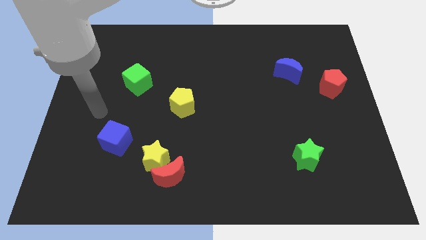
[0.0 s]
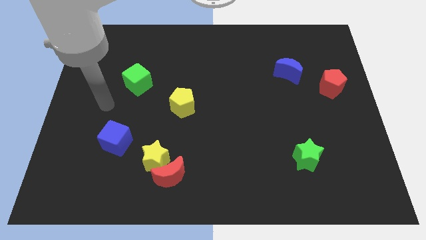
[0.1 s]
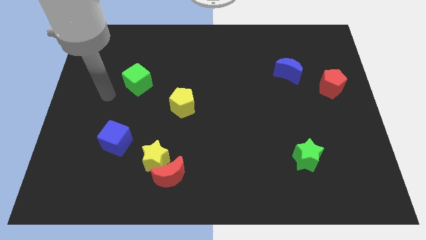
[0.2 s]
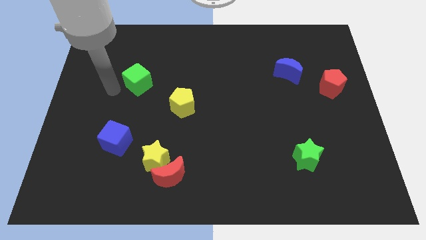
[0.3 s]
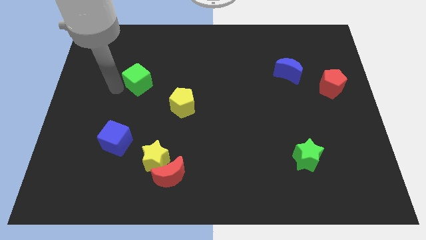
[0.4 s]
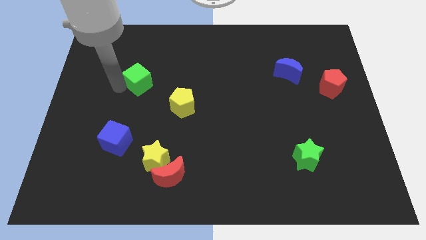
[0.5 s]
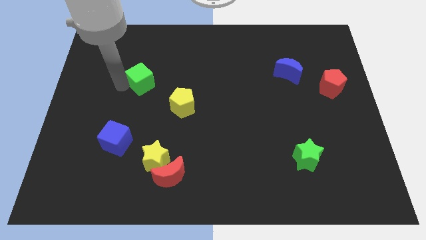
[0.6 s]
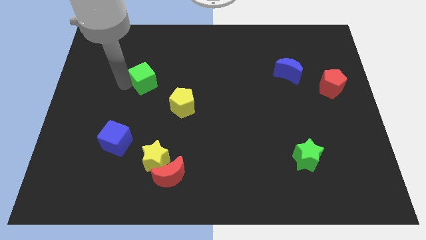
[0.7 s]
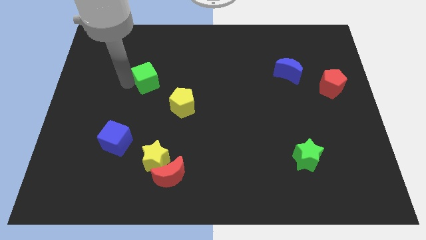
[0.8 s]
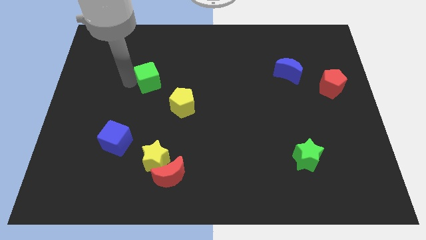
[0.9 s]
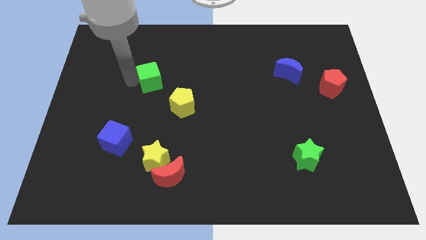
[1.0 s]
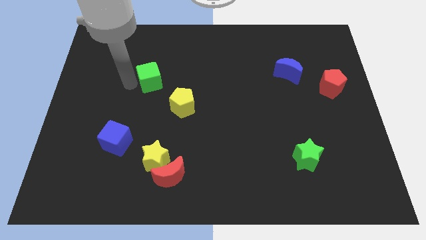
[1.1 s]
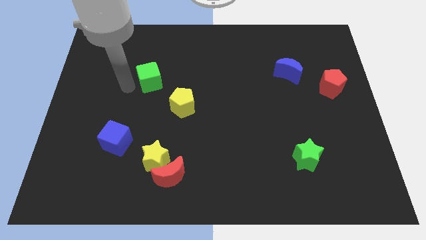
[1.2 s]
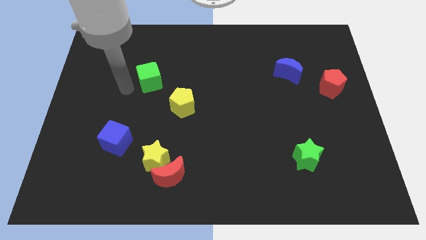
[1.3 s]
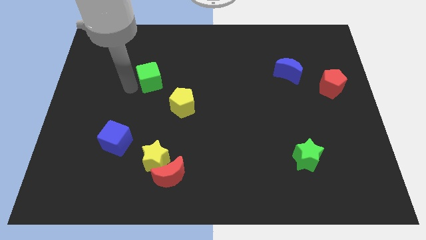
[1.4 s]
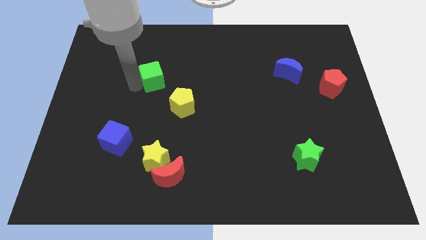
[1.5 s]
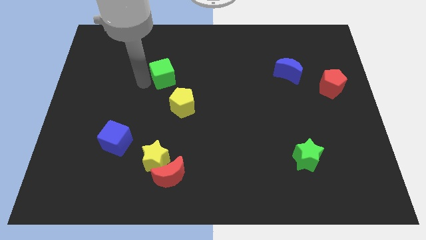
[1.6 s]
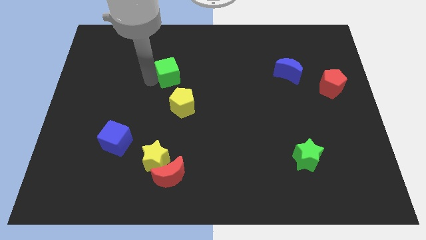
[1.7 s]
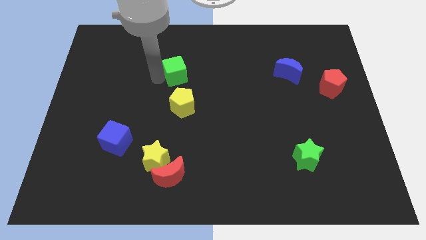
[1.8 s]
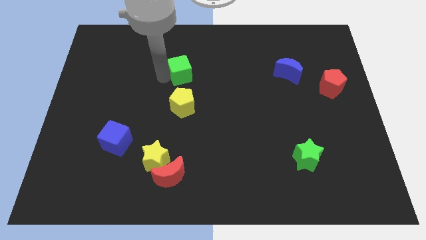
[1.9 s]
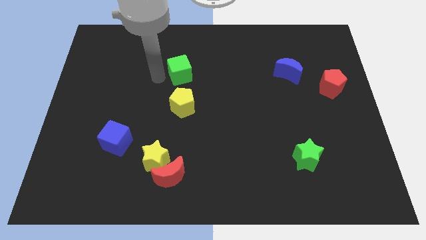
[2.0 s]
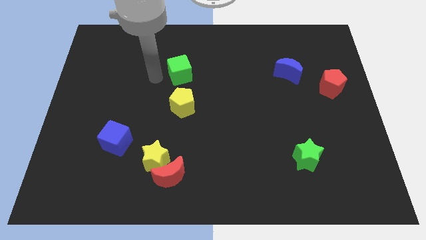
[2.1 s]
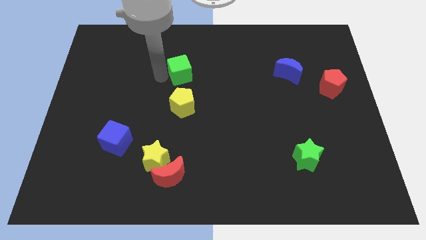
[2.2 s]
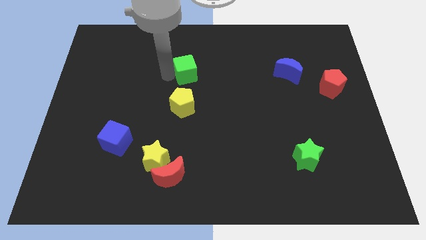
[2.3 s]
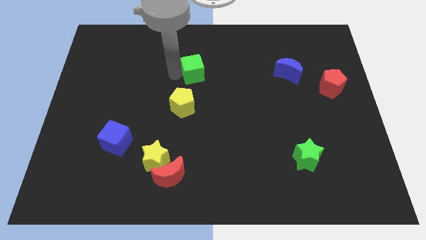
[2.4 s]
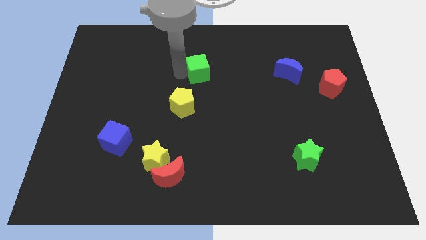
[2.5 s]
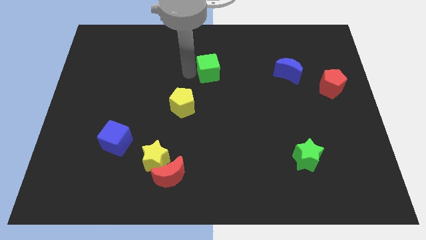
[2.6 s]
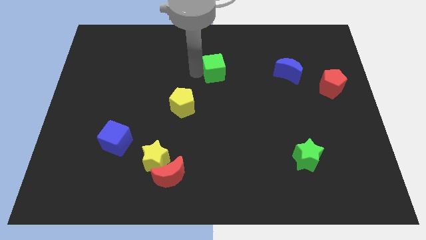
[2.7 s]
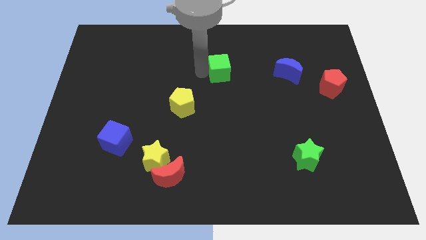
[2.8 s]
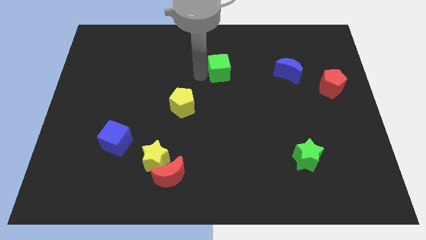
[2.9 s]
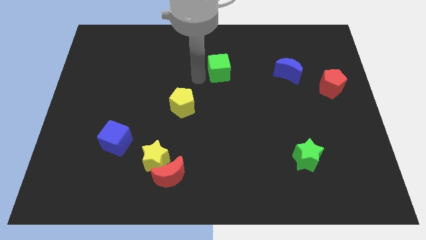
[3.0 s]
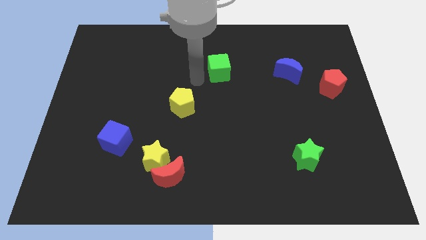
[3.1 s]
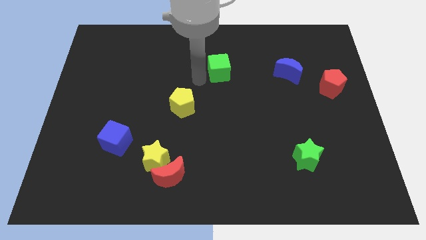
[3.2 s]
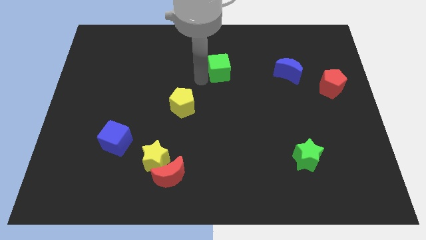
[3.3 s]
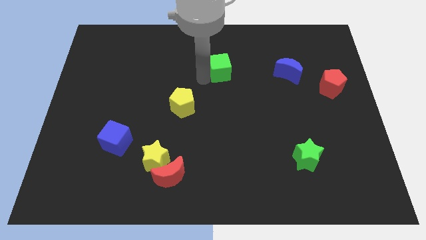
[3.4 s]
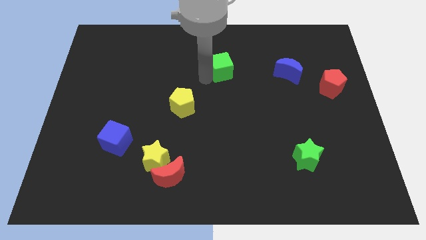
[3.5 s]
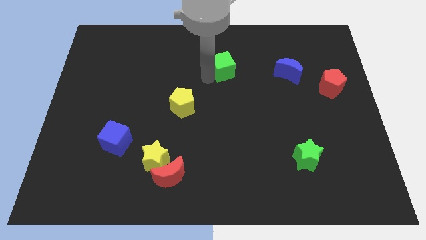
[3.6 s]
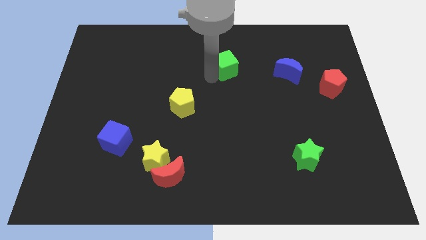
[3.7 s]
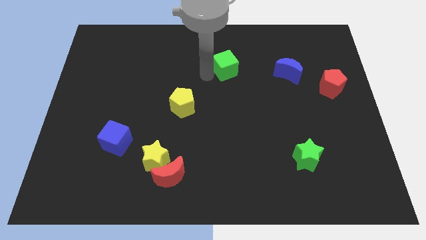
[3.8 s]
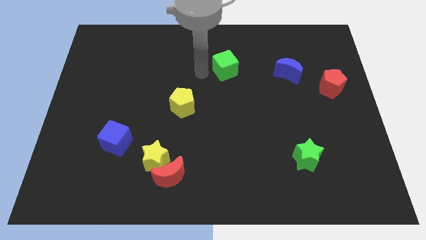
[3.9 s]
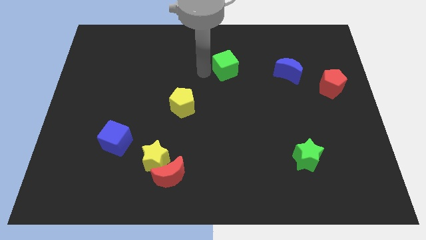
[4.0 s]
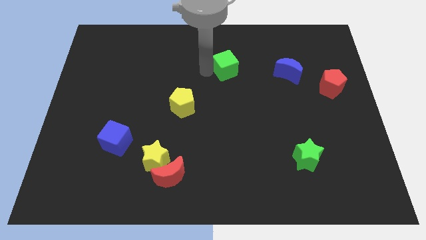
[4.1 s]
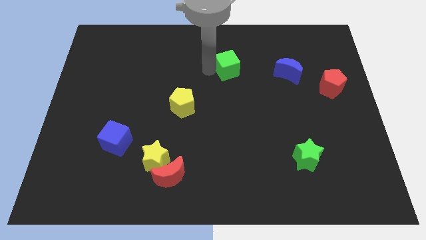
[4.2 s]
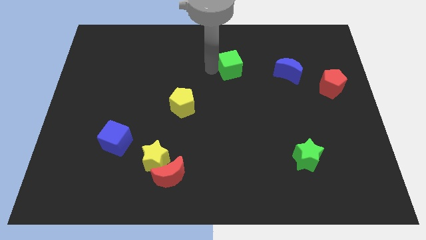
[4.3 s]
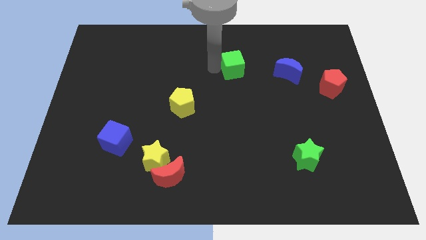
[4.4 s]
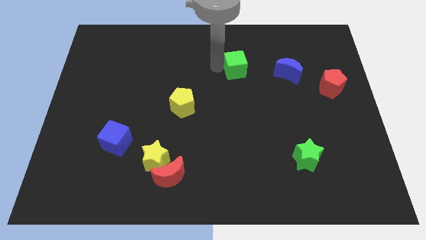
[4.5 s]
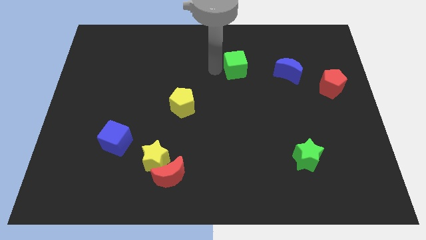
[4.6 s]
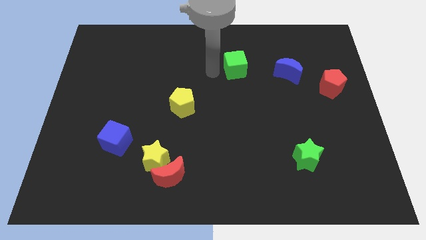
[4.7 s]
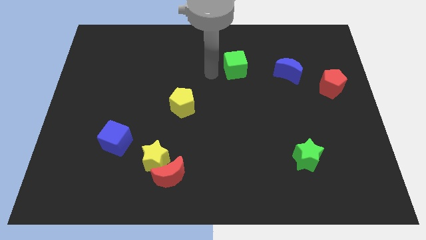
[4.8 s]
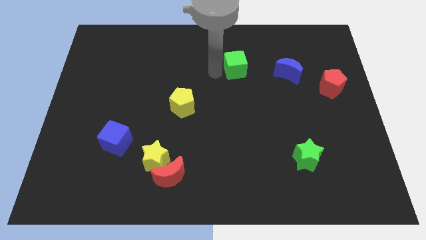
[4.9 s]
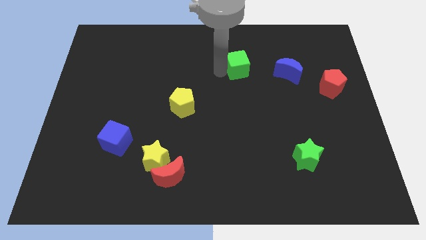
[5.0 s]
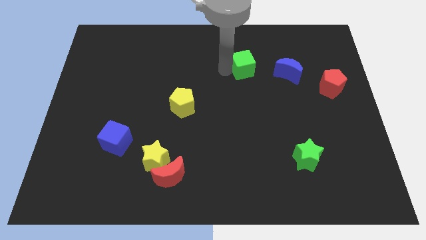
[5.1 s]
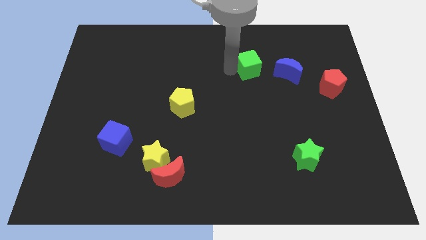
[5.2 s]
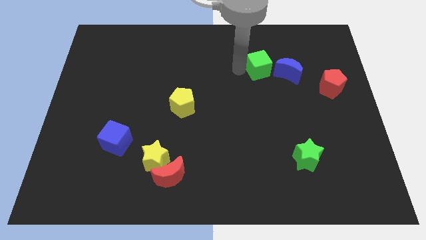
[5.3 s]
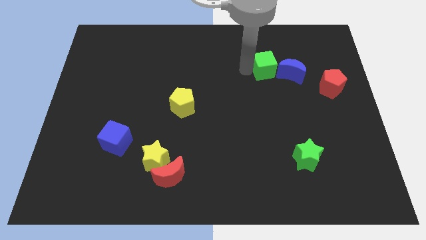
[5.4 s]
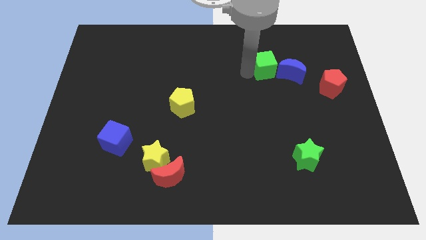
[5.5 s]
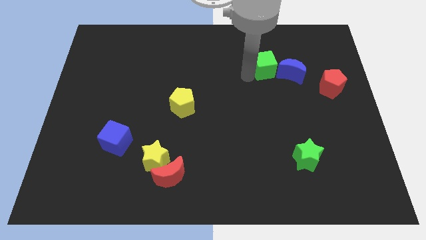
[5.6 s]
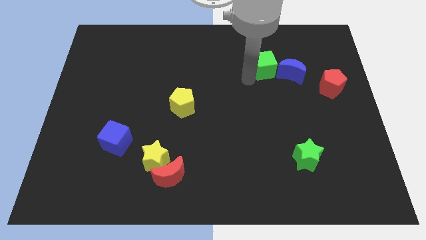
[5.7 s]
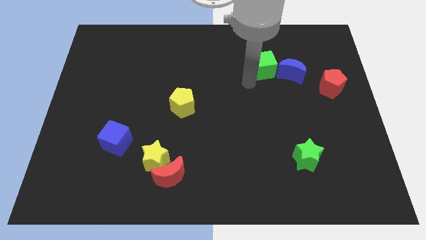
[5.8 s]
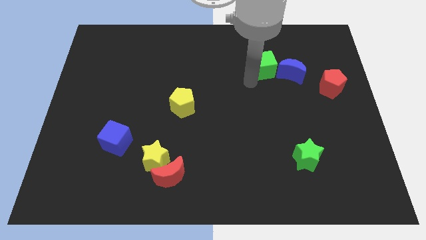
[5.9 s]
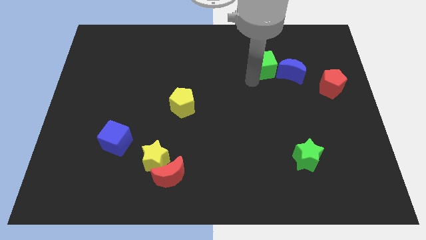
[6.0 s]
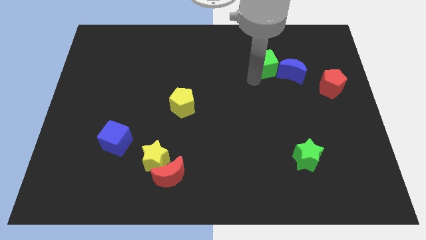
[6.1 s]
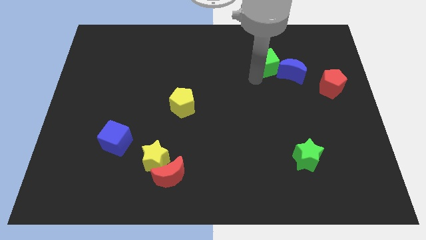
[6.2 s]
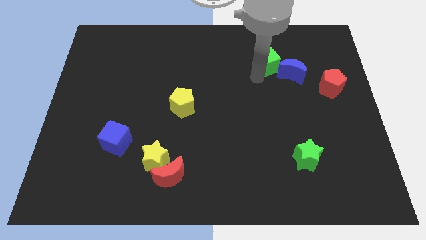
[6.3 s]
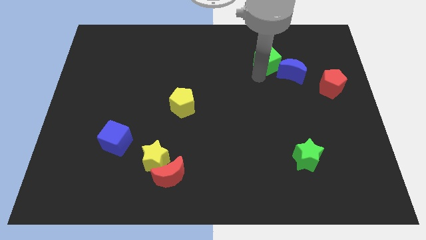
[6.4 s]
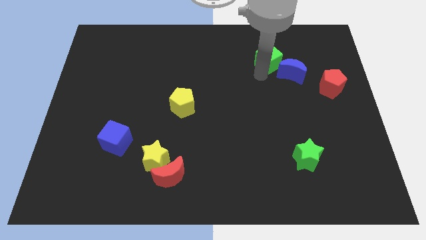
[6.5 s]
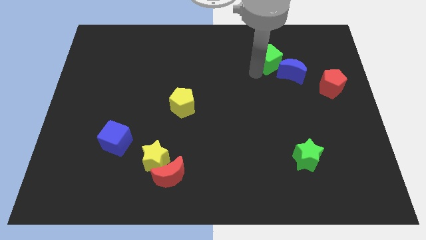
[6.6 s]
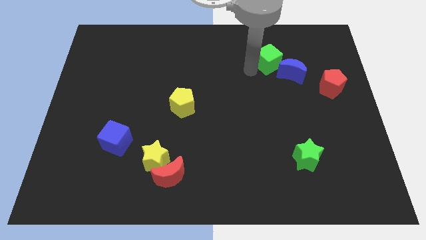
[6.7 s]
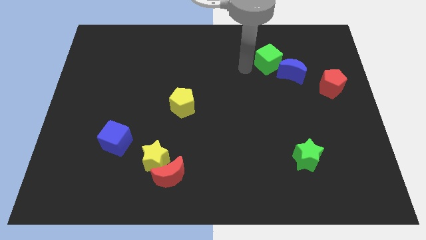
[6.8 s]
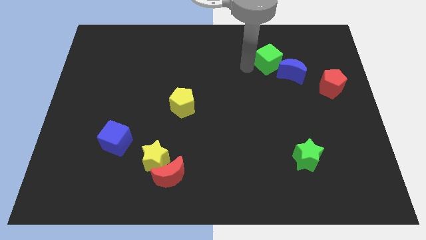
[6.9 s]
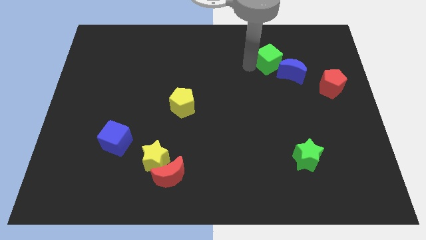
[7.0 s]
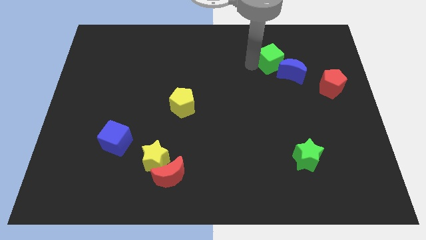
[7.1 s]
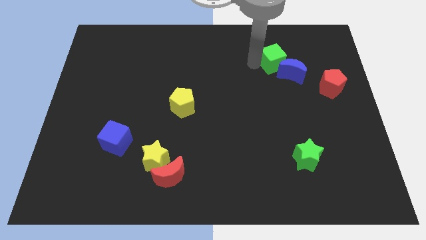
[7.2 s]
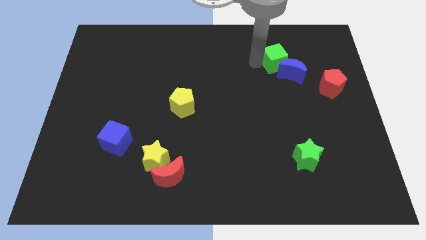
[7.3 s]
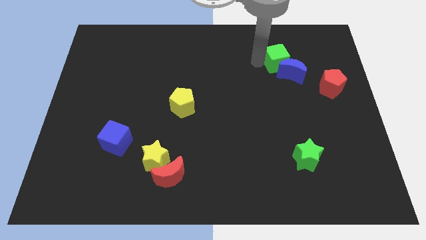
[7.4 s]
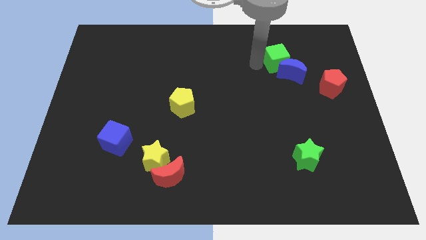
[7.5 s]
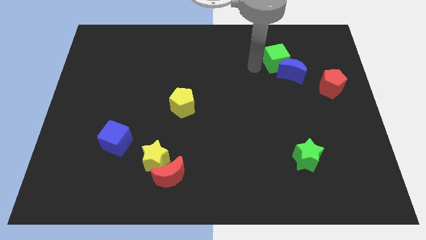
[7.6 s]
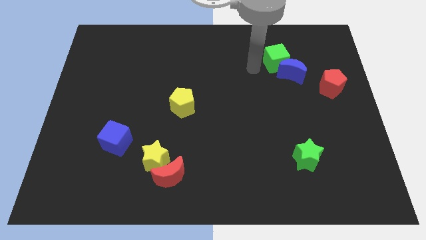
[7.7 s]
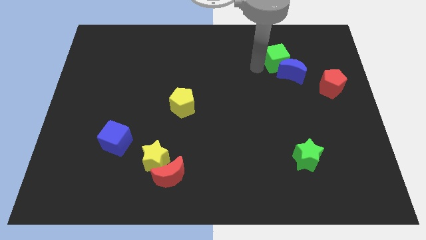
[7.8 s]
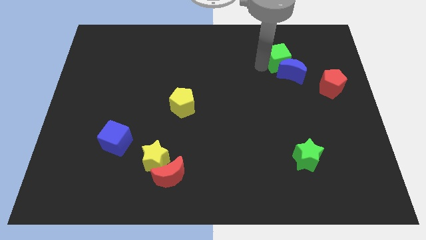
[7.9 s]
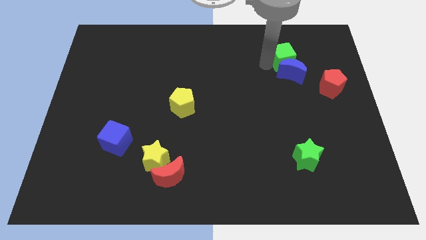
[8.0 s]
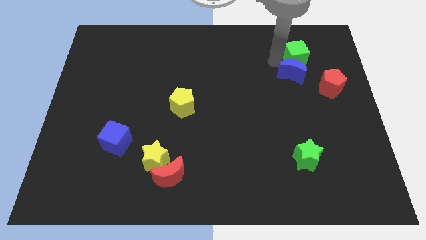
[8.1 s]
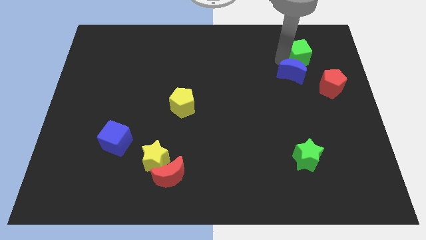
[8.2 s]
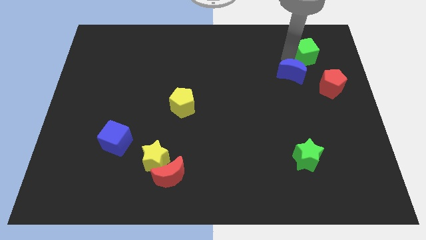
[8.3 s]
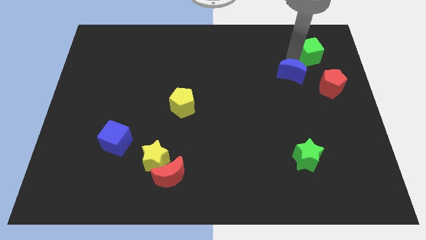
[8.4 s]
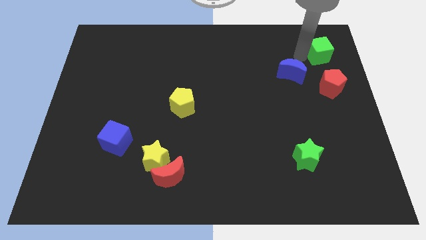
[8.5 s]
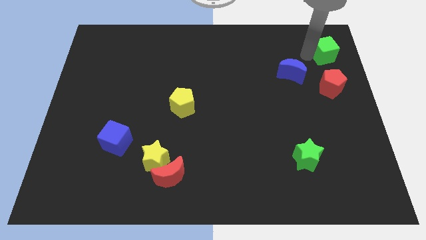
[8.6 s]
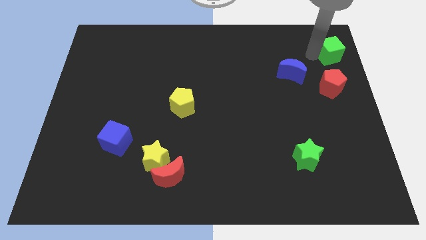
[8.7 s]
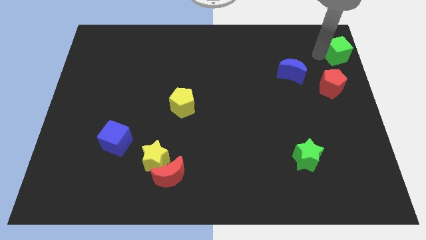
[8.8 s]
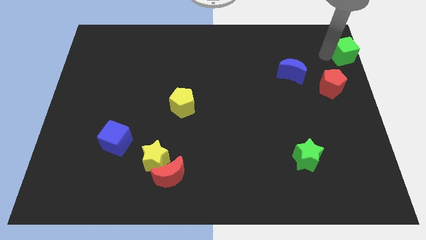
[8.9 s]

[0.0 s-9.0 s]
put the green cube to the top right corner
